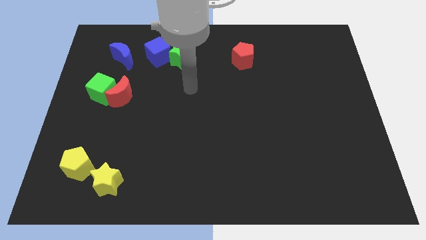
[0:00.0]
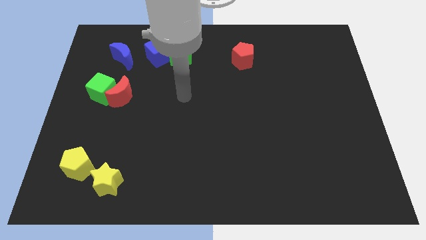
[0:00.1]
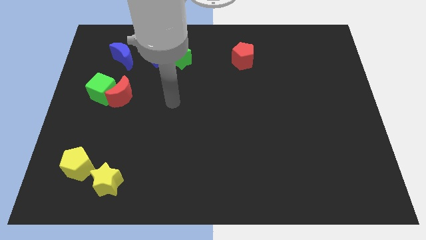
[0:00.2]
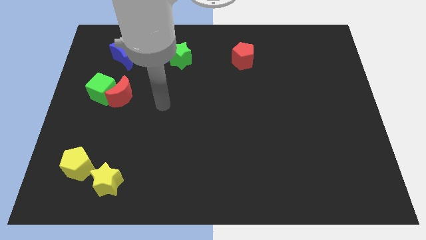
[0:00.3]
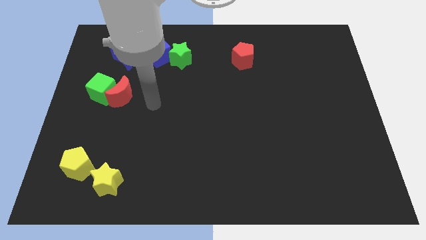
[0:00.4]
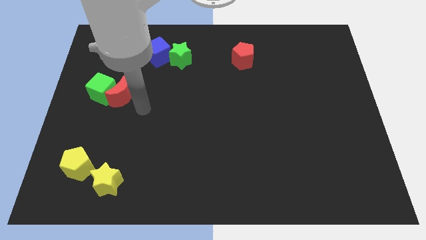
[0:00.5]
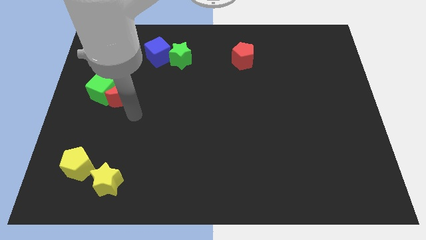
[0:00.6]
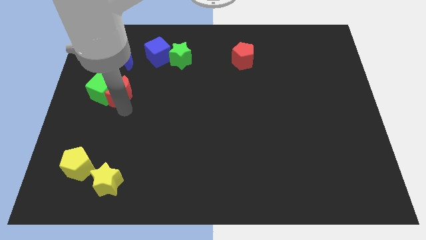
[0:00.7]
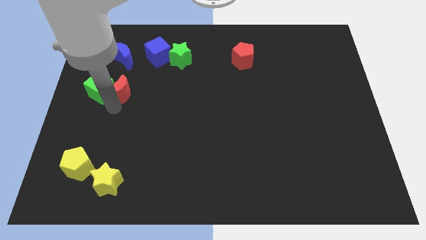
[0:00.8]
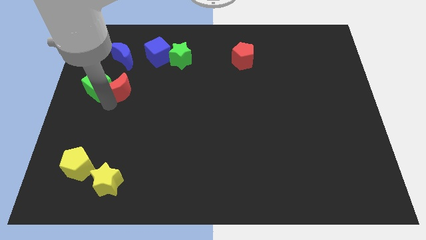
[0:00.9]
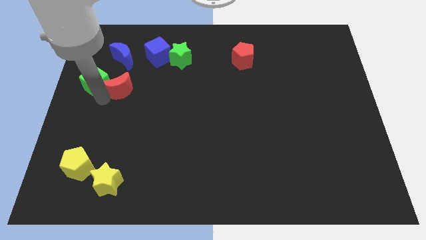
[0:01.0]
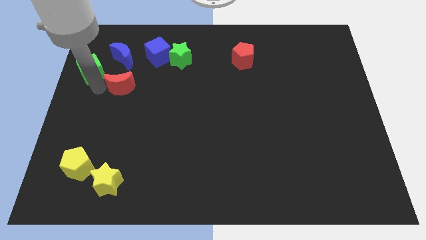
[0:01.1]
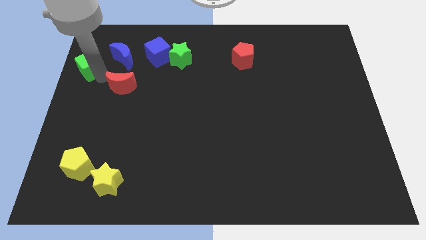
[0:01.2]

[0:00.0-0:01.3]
move the red moon away from the green cube

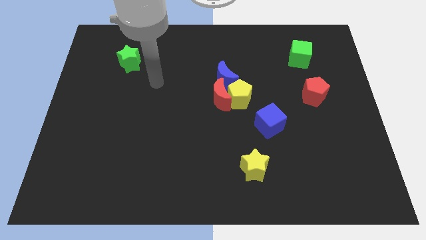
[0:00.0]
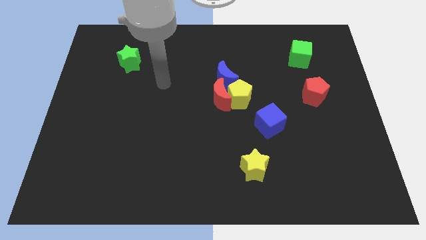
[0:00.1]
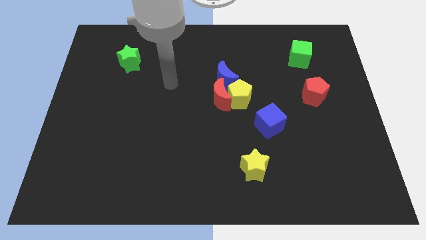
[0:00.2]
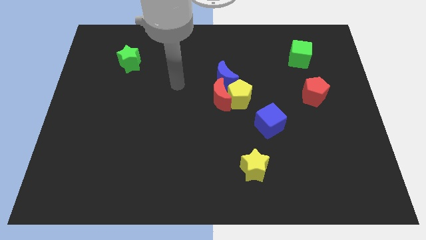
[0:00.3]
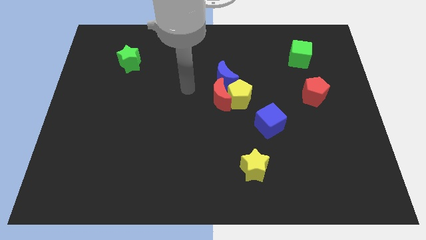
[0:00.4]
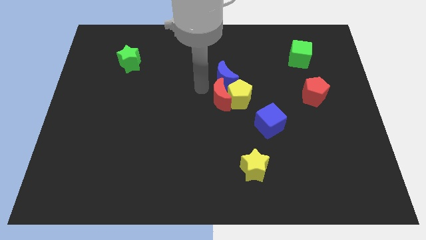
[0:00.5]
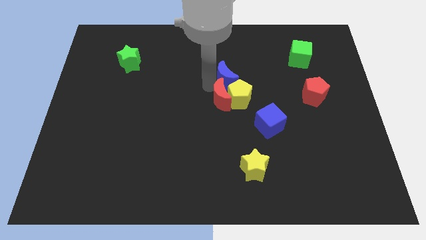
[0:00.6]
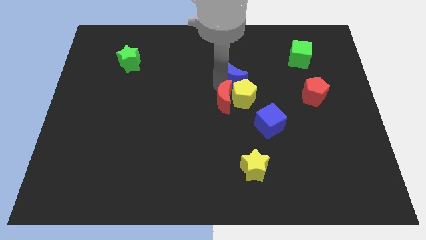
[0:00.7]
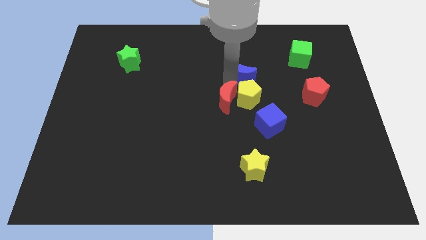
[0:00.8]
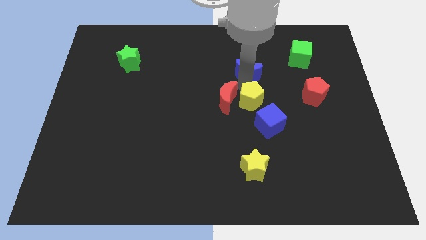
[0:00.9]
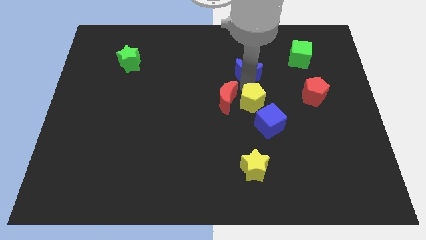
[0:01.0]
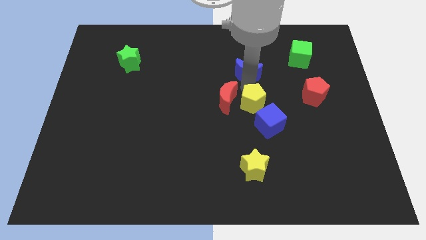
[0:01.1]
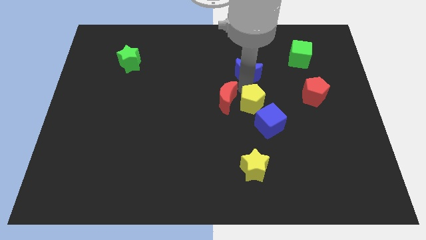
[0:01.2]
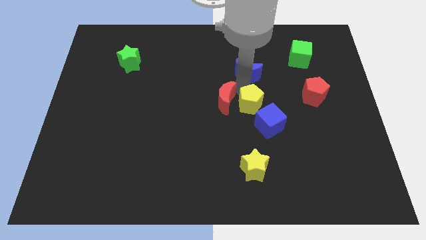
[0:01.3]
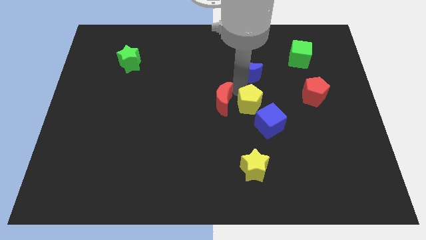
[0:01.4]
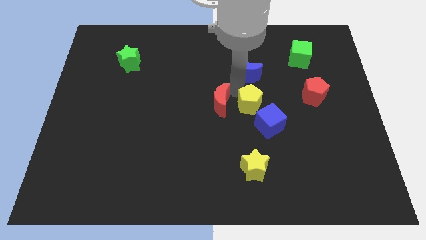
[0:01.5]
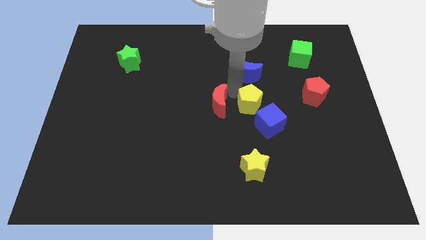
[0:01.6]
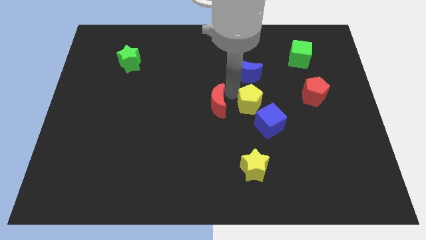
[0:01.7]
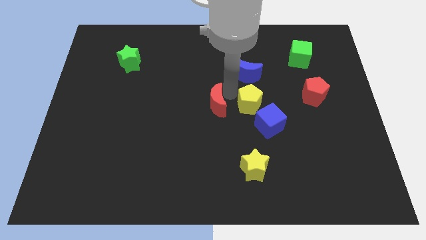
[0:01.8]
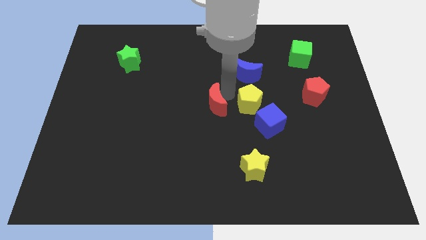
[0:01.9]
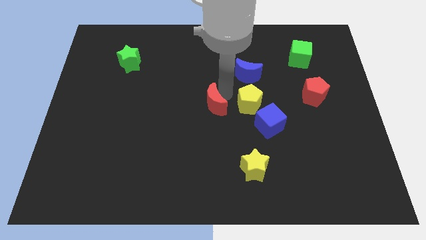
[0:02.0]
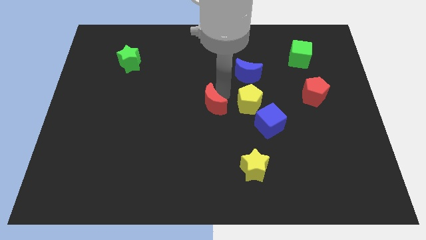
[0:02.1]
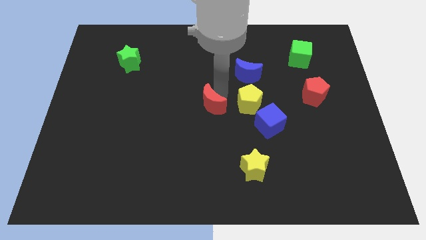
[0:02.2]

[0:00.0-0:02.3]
pull the red moon apart from the yellow pentagon and blue moon

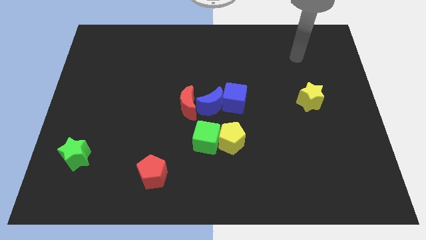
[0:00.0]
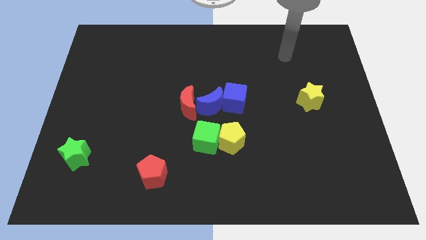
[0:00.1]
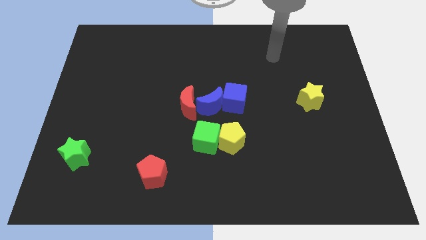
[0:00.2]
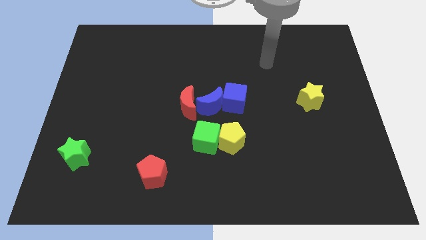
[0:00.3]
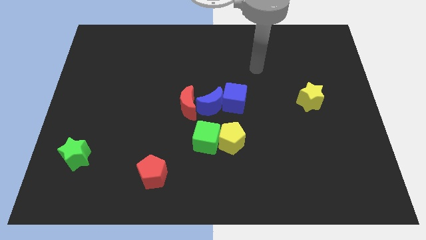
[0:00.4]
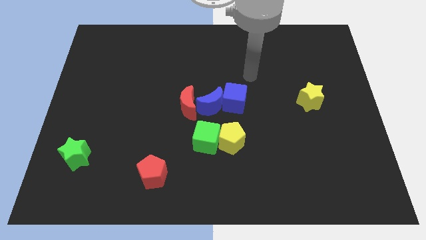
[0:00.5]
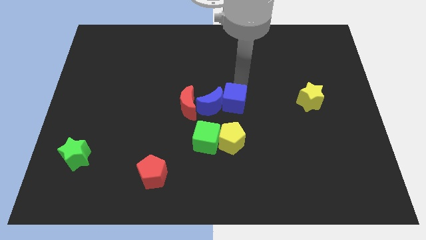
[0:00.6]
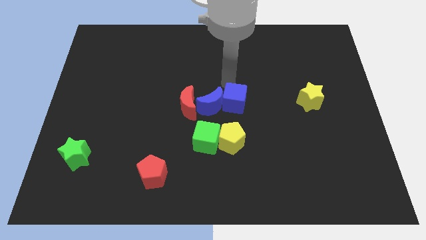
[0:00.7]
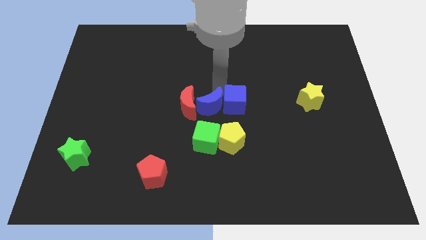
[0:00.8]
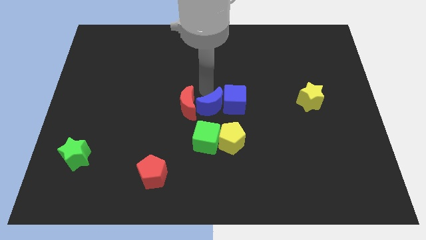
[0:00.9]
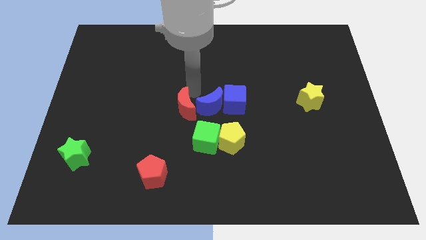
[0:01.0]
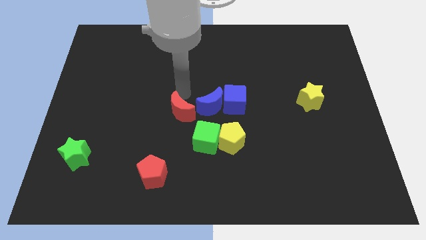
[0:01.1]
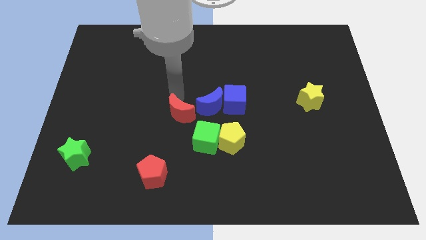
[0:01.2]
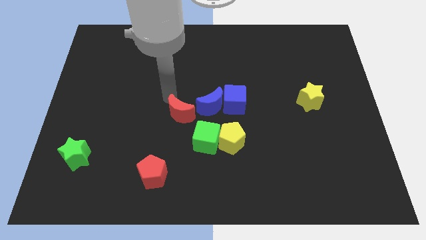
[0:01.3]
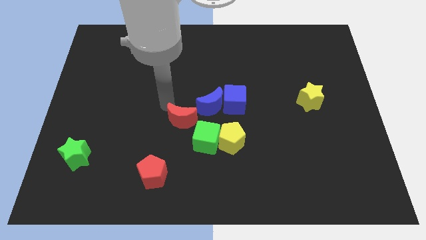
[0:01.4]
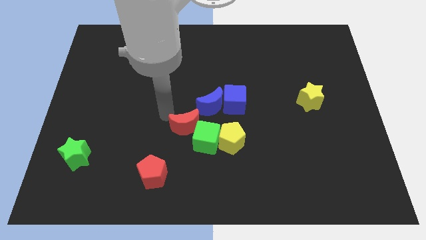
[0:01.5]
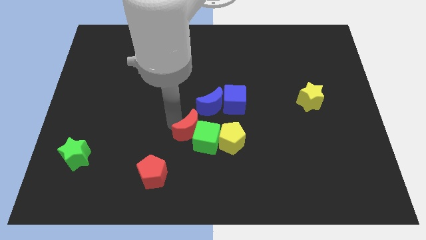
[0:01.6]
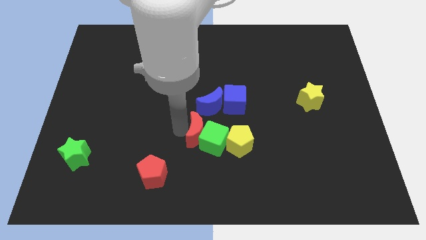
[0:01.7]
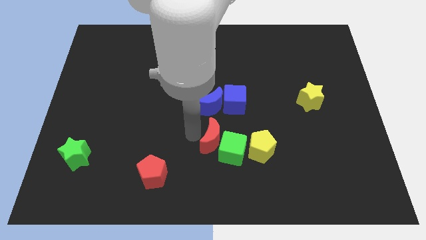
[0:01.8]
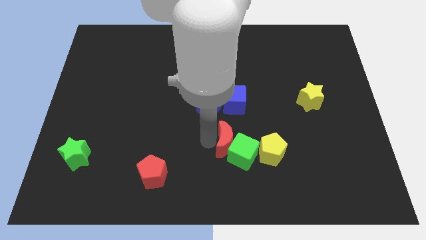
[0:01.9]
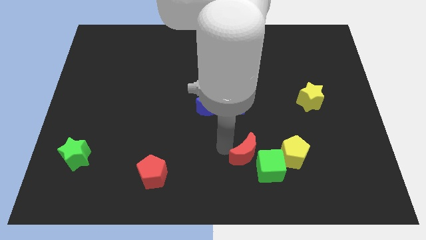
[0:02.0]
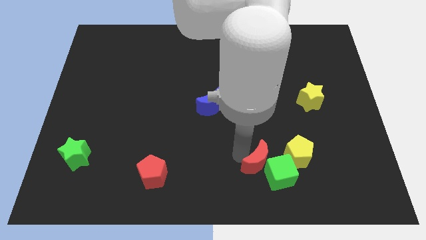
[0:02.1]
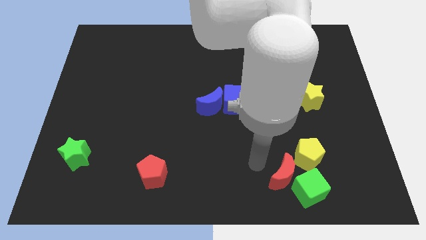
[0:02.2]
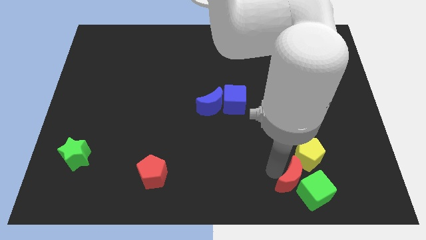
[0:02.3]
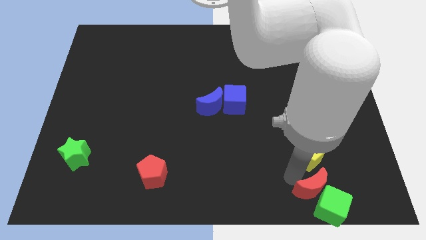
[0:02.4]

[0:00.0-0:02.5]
move the yellow pentagon away from the green cube

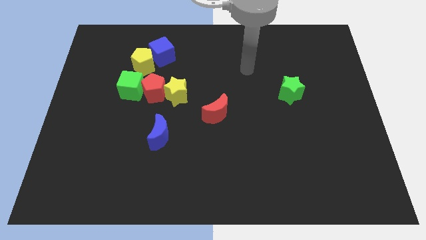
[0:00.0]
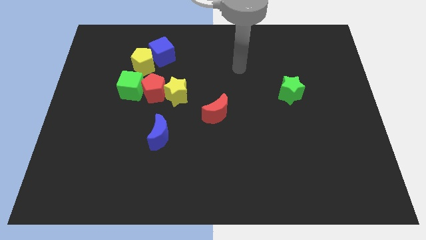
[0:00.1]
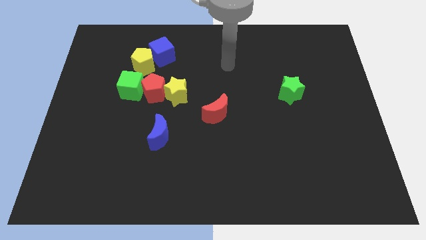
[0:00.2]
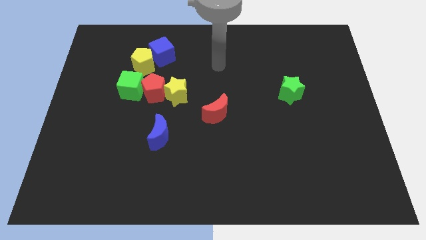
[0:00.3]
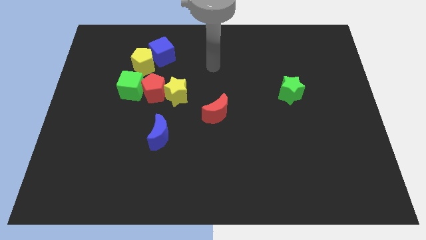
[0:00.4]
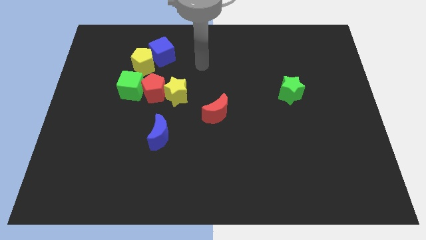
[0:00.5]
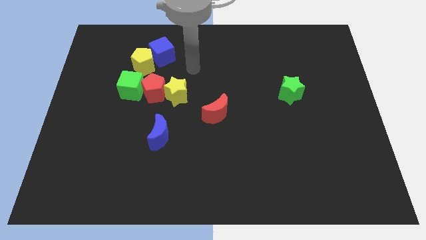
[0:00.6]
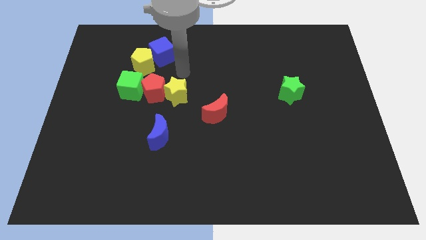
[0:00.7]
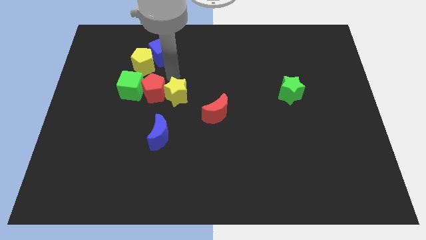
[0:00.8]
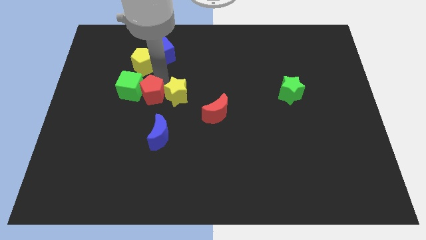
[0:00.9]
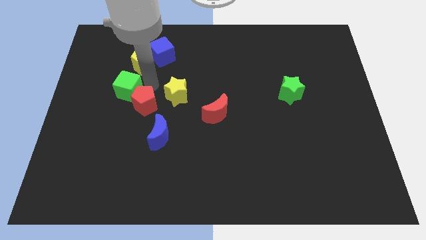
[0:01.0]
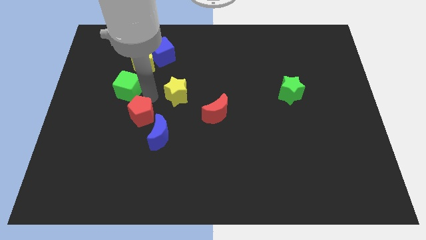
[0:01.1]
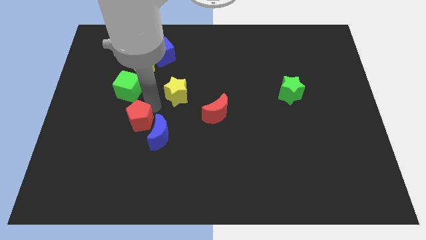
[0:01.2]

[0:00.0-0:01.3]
pull the yellow star apart from the red pentagon

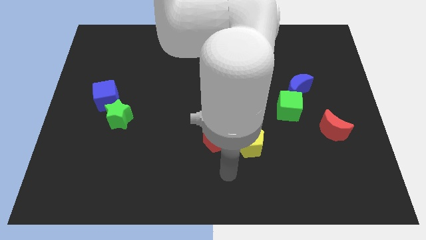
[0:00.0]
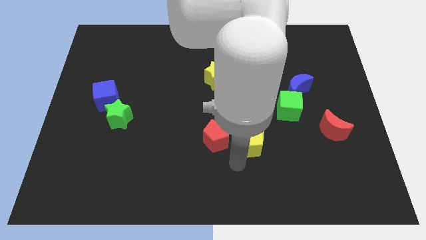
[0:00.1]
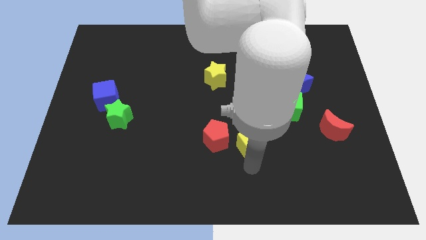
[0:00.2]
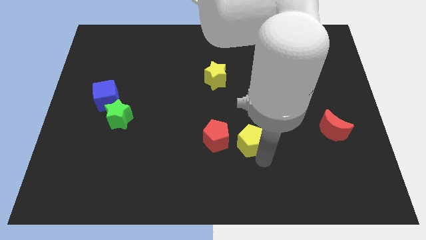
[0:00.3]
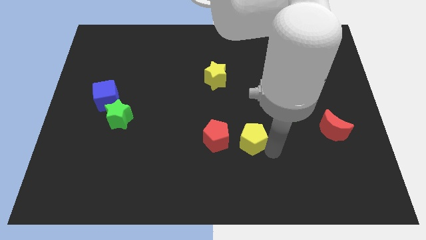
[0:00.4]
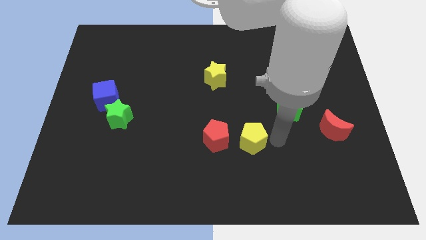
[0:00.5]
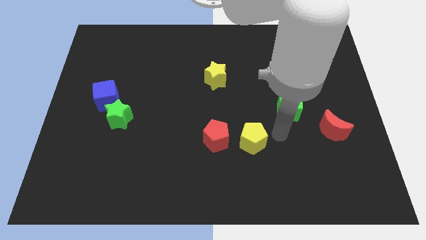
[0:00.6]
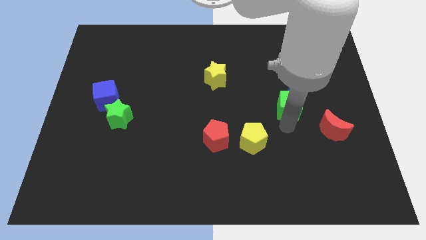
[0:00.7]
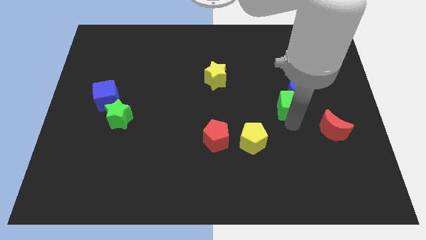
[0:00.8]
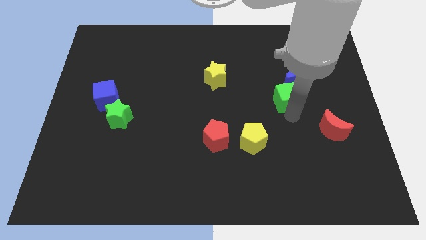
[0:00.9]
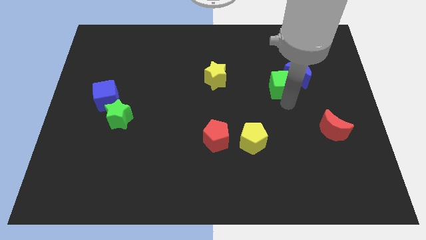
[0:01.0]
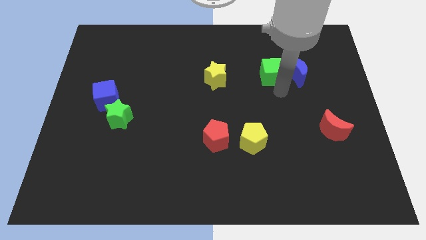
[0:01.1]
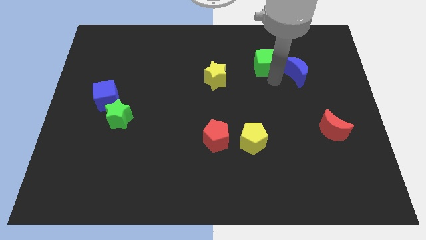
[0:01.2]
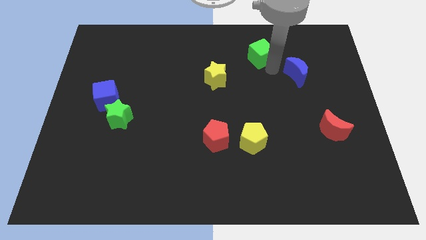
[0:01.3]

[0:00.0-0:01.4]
move the blue moon away from the green cube

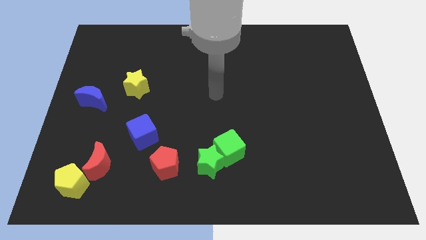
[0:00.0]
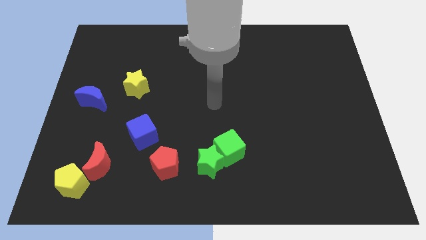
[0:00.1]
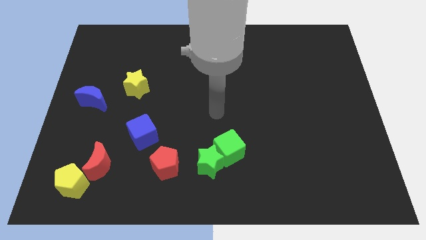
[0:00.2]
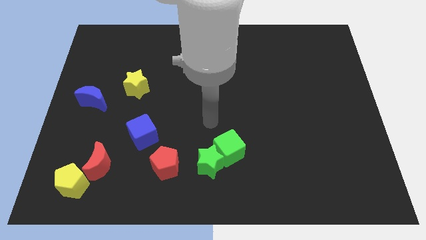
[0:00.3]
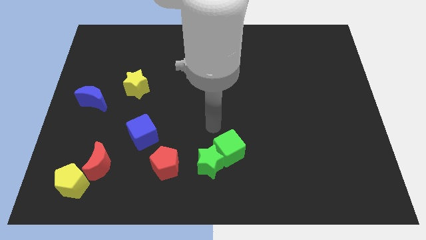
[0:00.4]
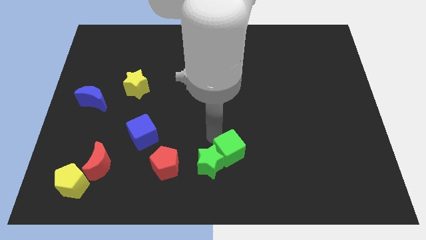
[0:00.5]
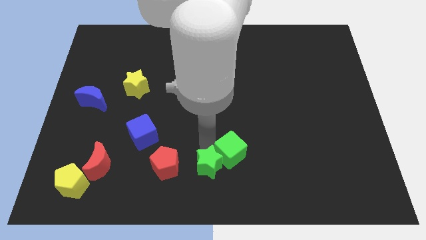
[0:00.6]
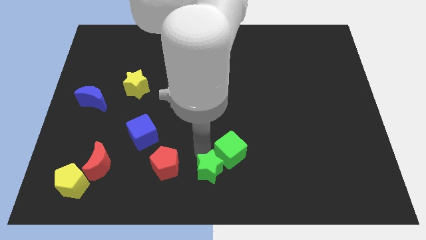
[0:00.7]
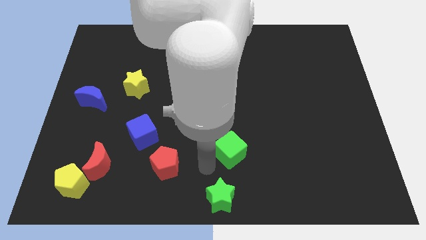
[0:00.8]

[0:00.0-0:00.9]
pull the green cube apart from the green star
